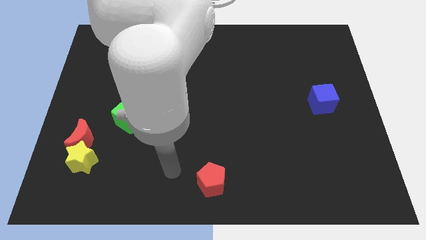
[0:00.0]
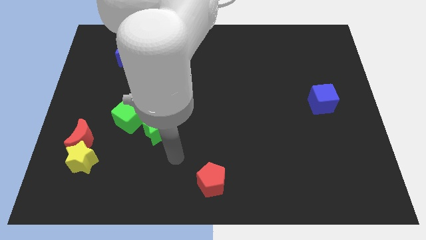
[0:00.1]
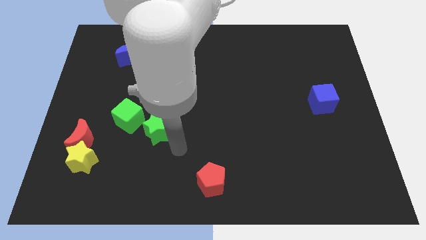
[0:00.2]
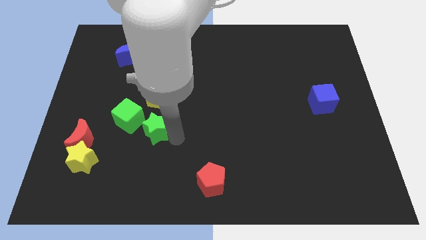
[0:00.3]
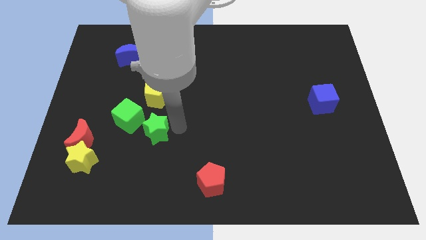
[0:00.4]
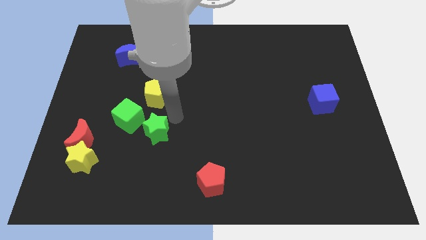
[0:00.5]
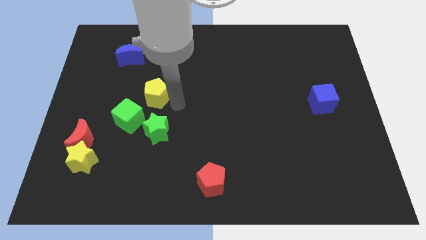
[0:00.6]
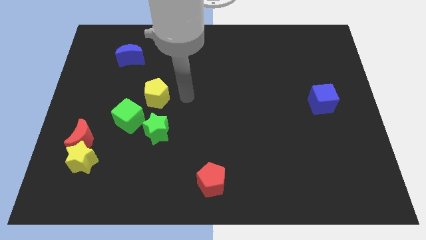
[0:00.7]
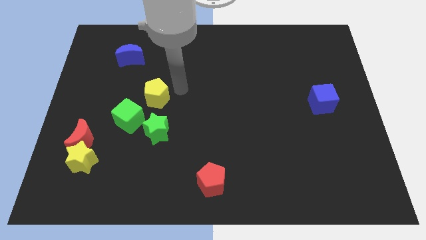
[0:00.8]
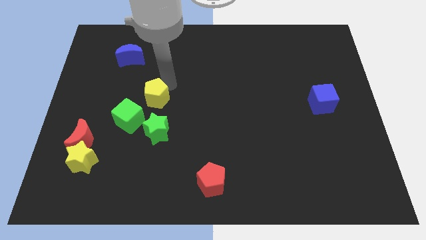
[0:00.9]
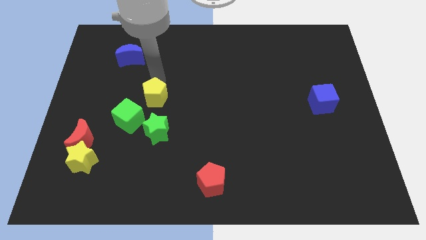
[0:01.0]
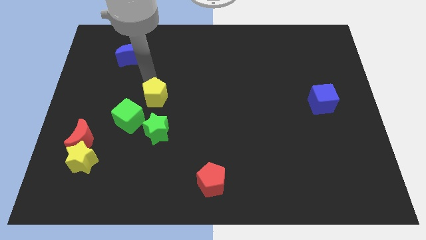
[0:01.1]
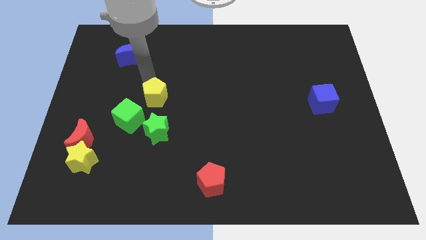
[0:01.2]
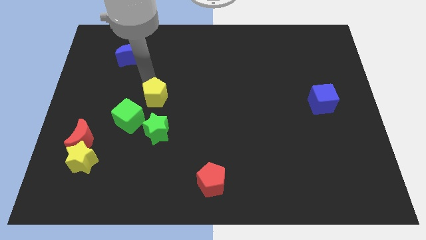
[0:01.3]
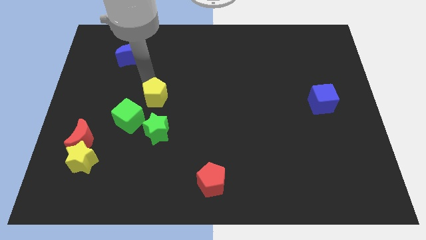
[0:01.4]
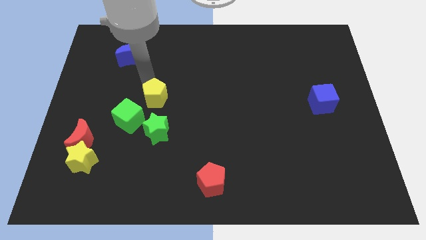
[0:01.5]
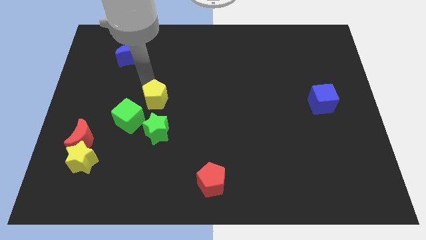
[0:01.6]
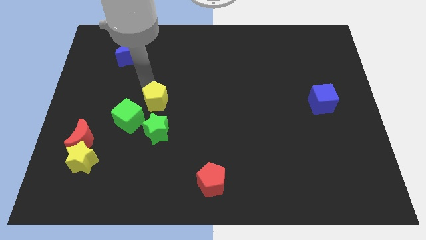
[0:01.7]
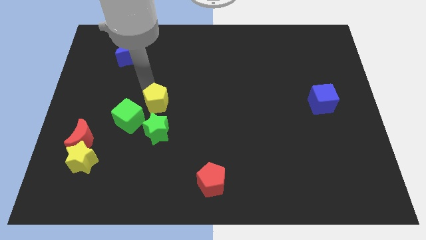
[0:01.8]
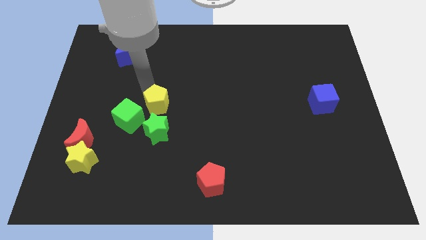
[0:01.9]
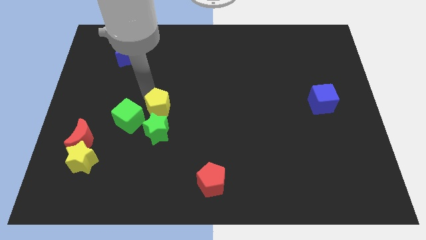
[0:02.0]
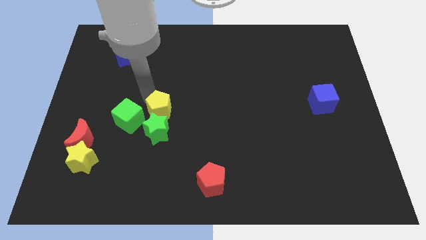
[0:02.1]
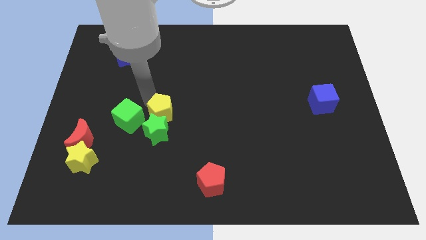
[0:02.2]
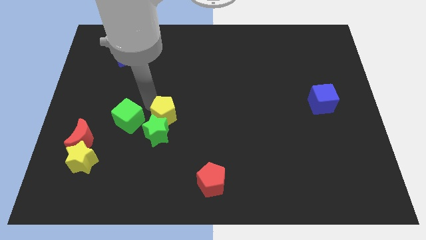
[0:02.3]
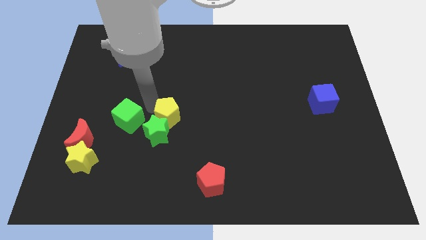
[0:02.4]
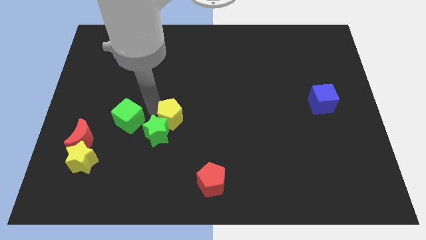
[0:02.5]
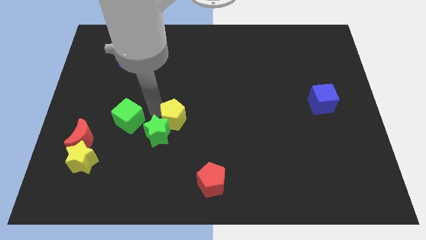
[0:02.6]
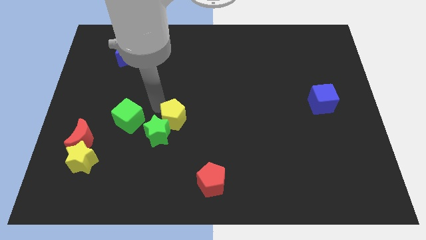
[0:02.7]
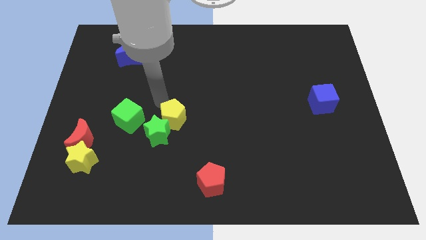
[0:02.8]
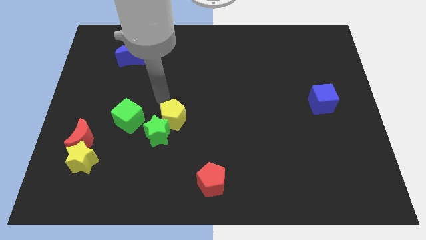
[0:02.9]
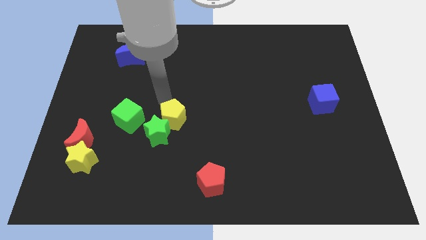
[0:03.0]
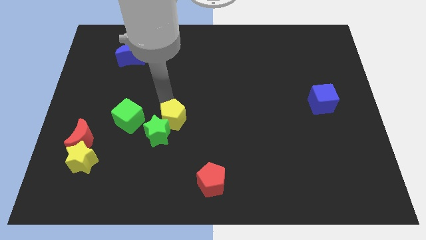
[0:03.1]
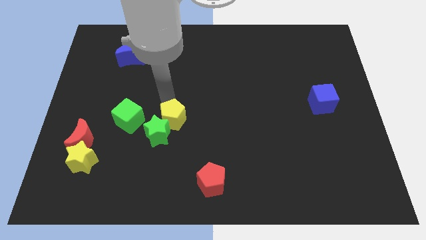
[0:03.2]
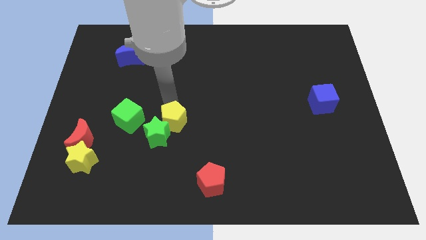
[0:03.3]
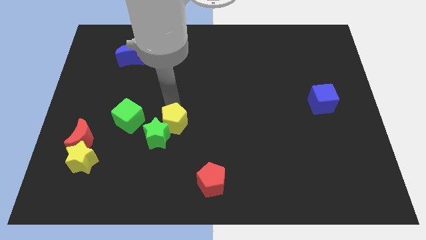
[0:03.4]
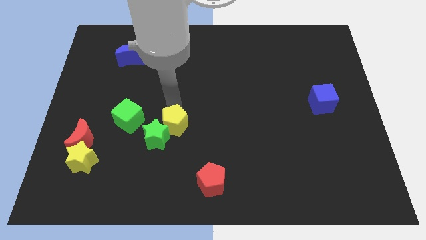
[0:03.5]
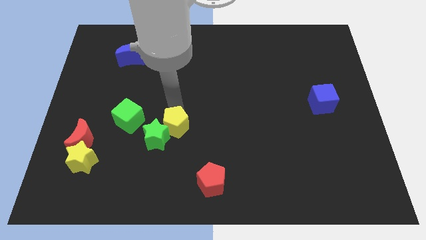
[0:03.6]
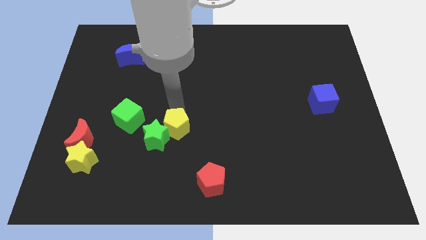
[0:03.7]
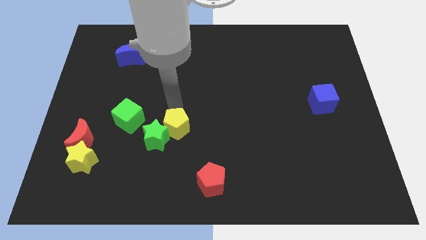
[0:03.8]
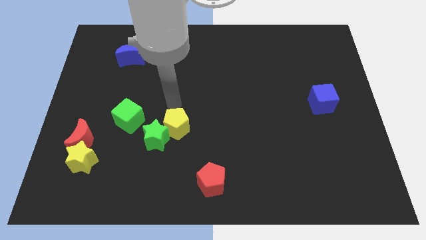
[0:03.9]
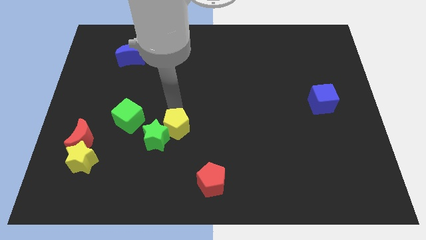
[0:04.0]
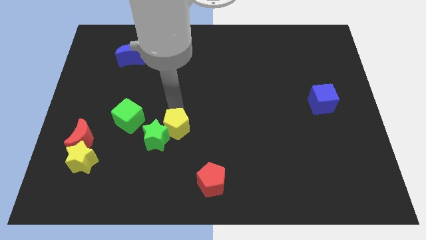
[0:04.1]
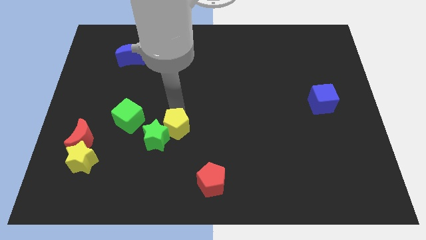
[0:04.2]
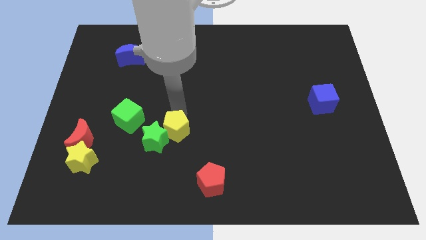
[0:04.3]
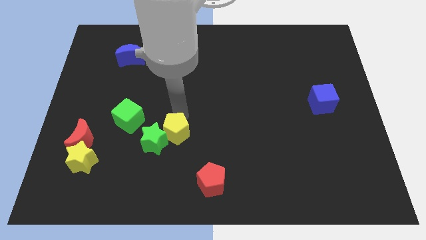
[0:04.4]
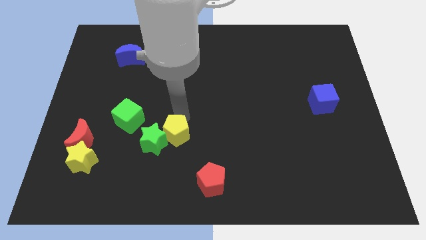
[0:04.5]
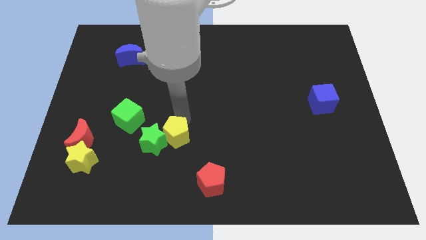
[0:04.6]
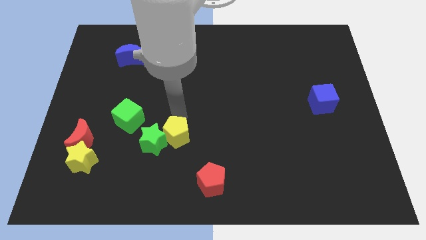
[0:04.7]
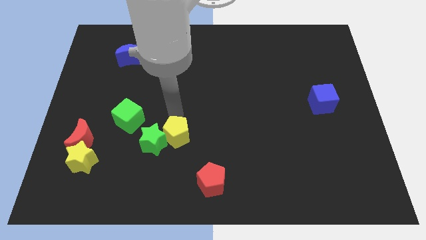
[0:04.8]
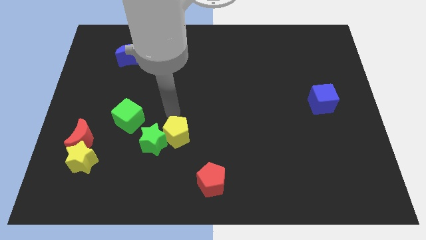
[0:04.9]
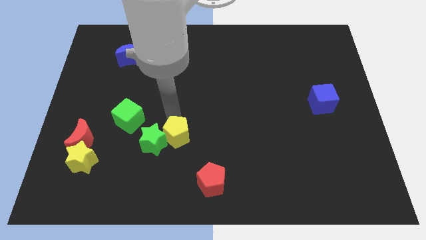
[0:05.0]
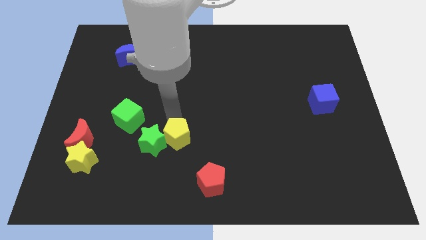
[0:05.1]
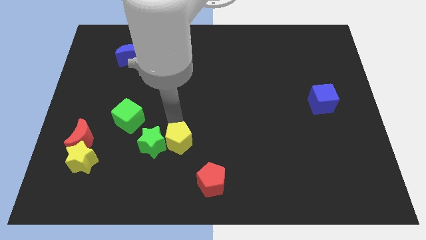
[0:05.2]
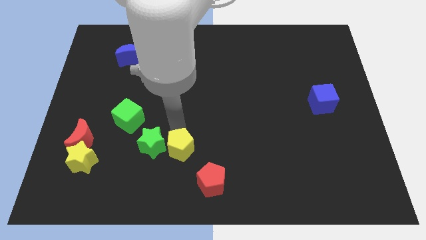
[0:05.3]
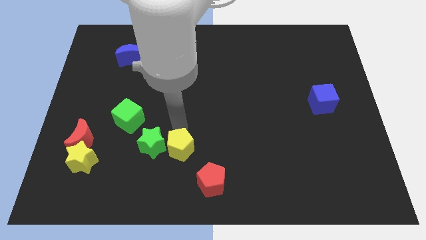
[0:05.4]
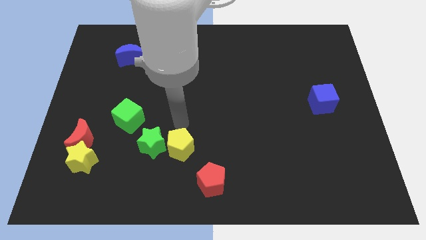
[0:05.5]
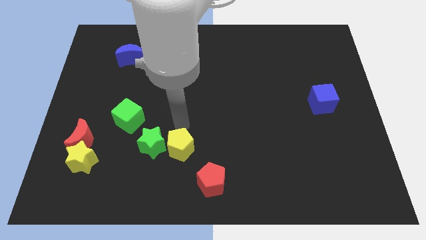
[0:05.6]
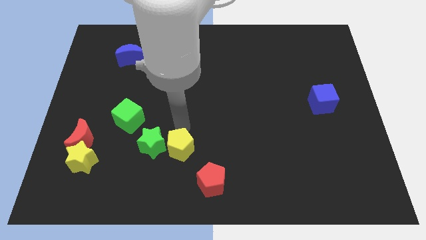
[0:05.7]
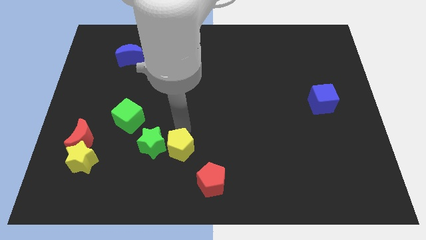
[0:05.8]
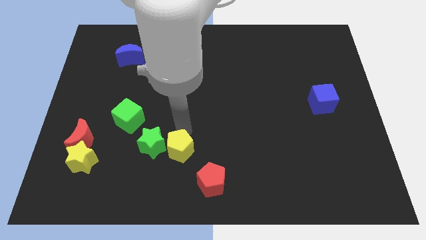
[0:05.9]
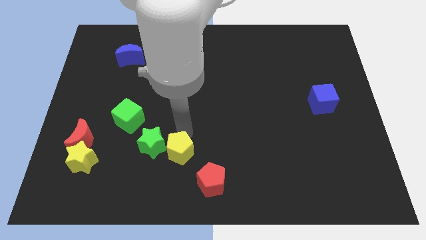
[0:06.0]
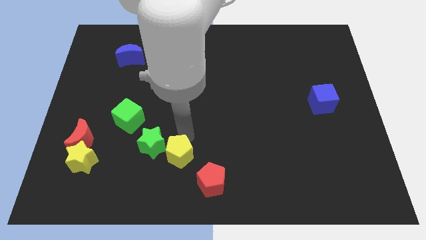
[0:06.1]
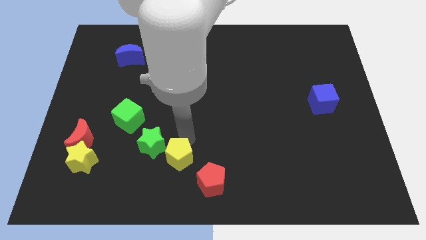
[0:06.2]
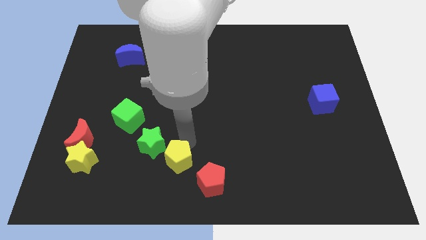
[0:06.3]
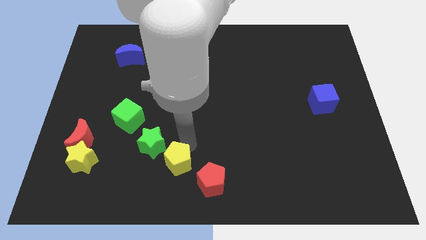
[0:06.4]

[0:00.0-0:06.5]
put the yellow pentagon to the bottom side
